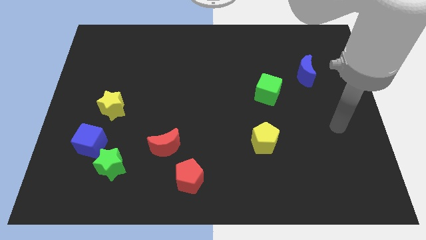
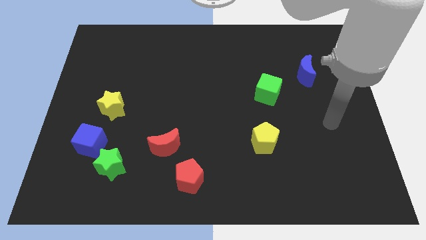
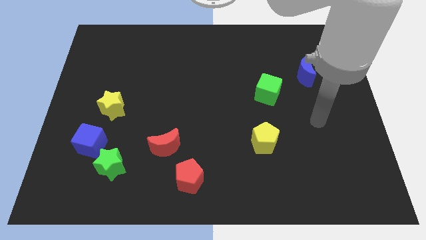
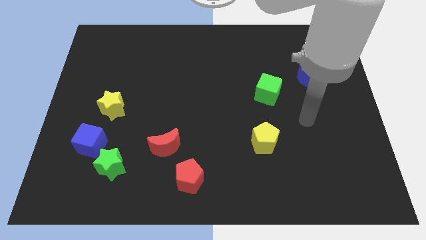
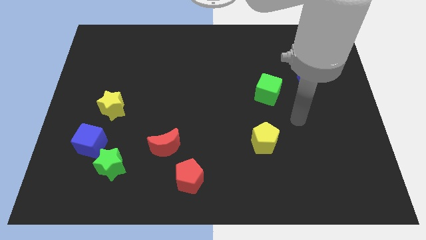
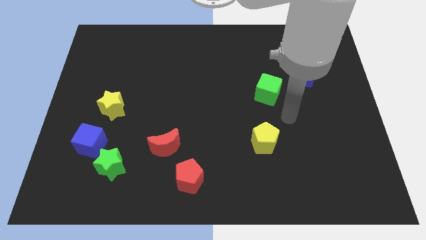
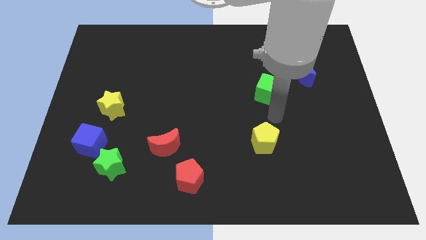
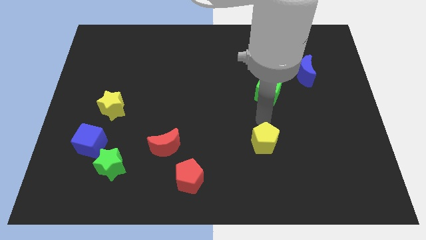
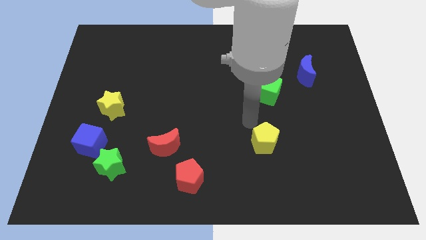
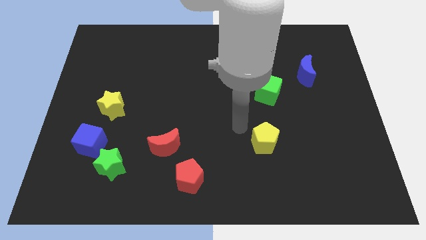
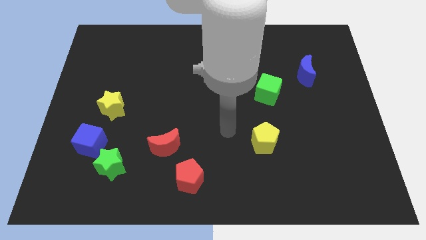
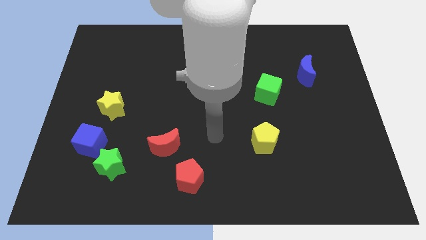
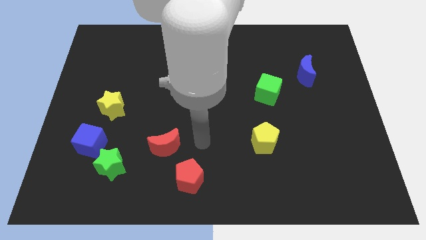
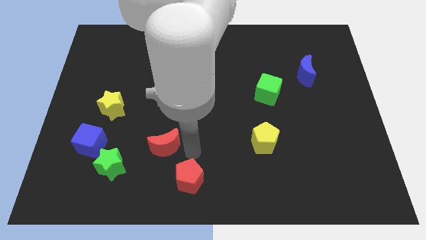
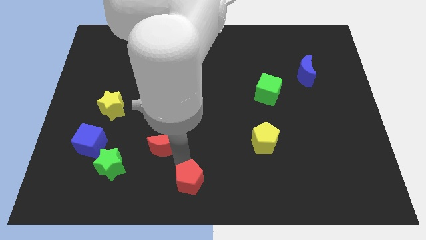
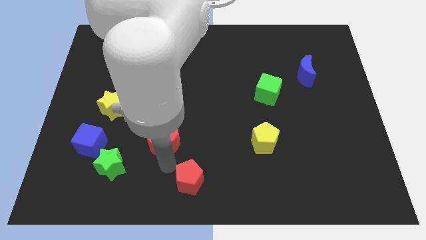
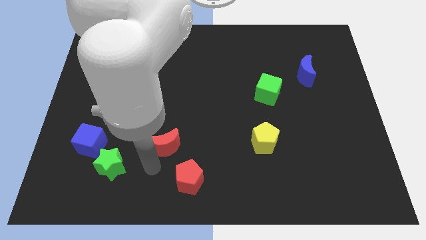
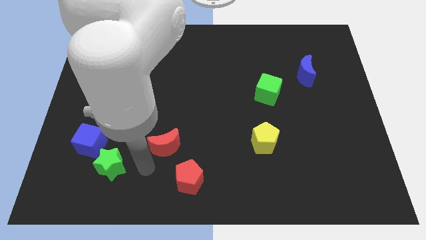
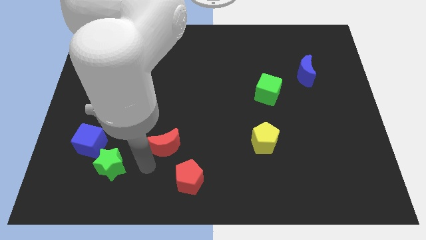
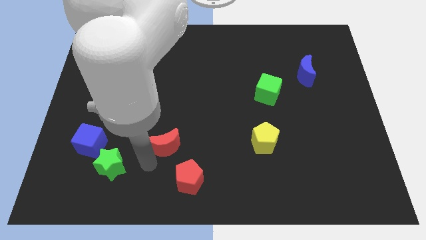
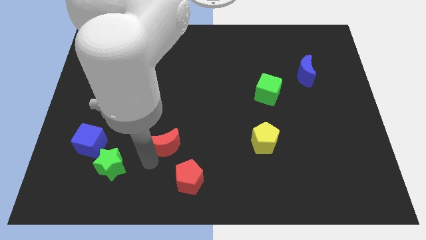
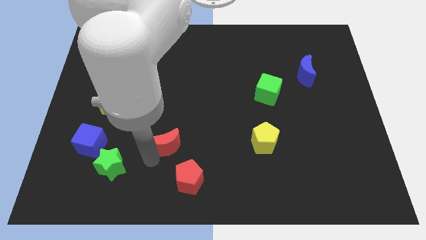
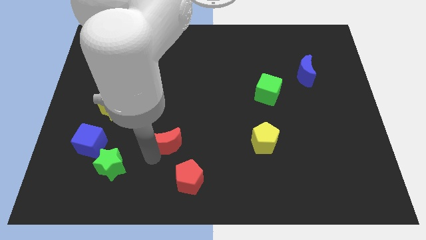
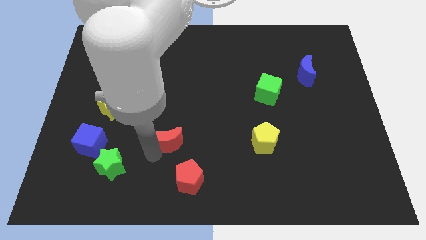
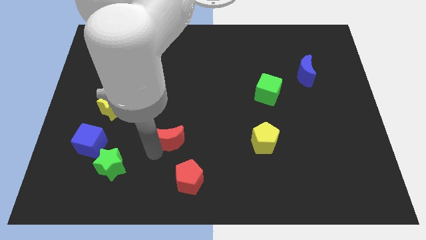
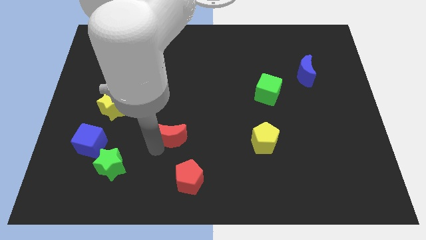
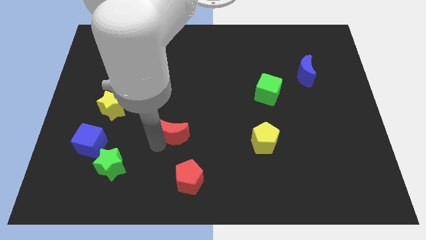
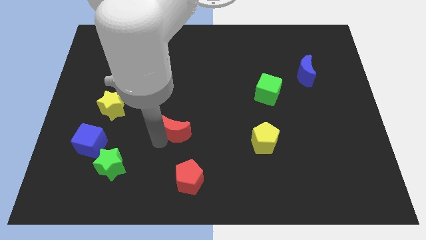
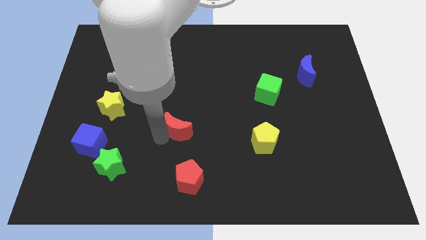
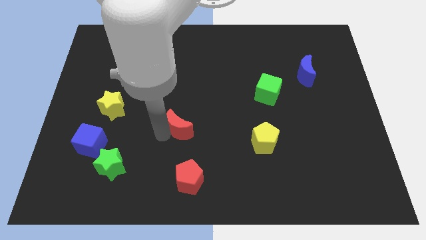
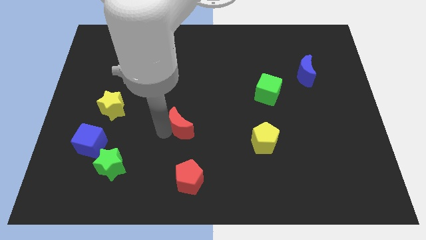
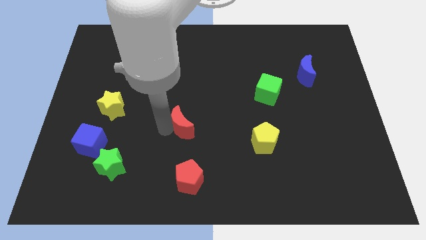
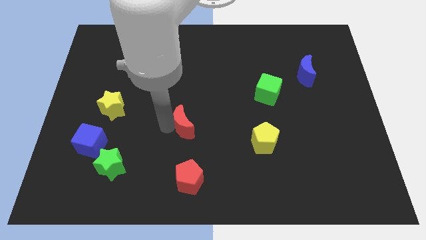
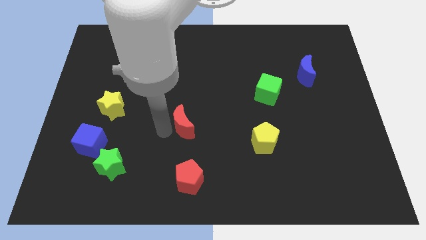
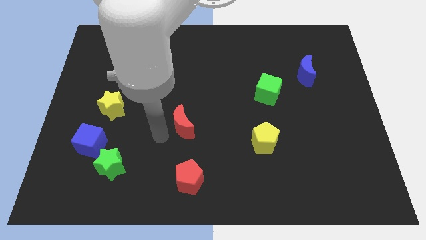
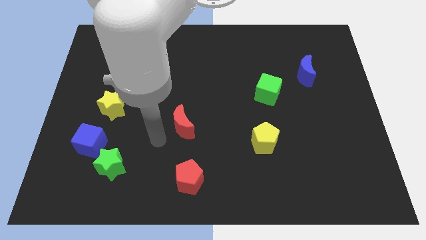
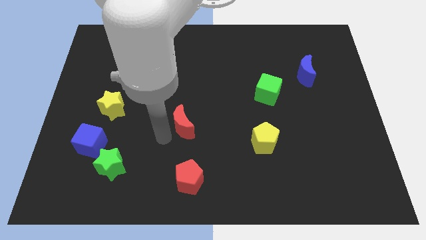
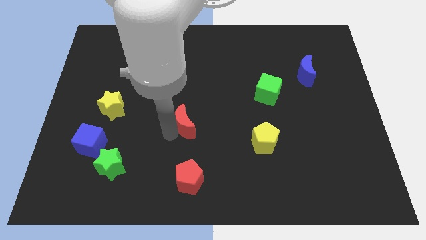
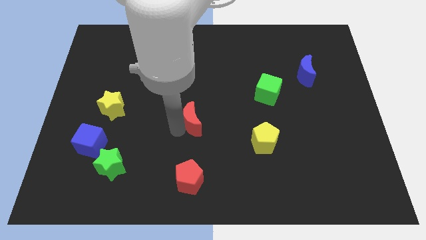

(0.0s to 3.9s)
slide the red moon upwards and then to the right slightly

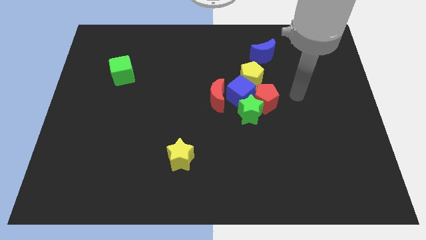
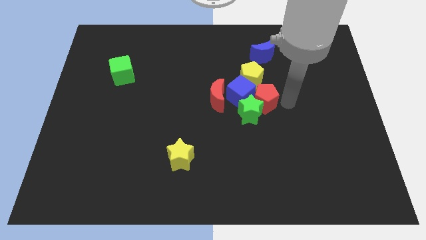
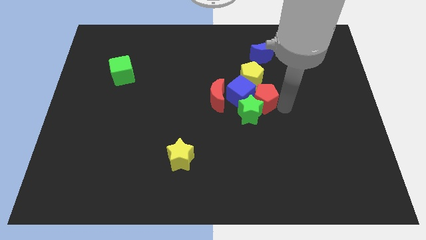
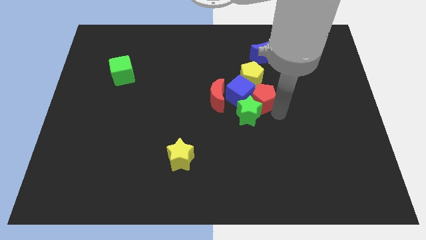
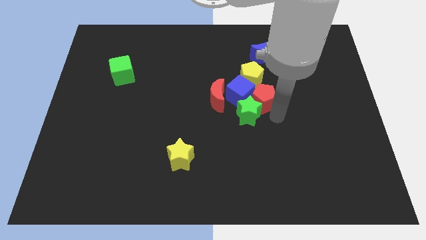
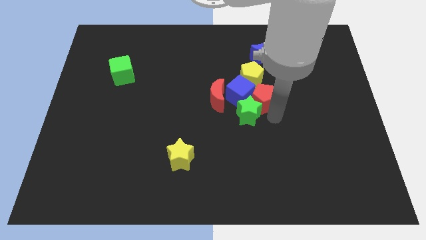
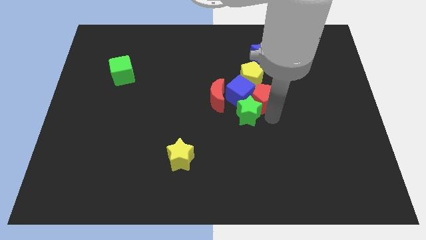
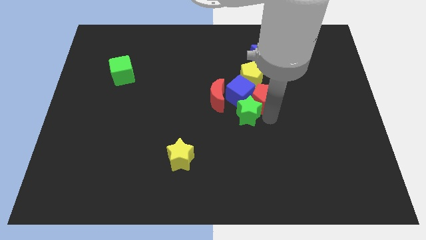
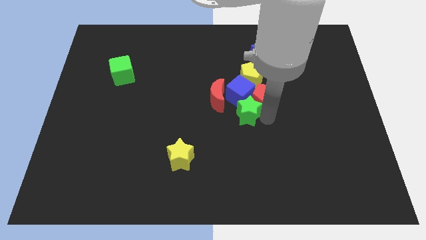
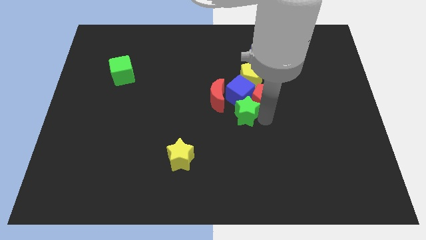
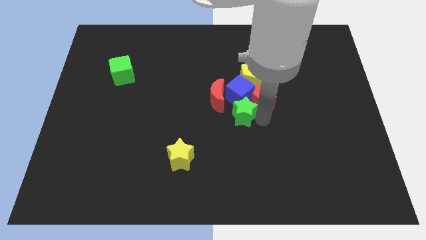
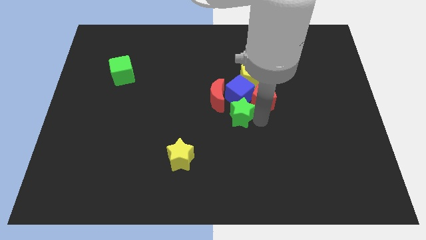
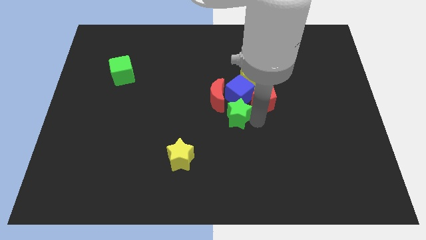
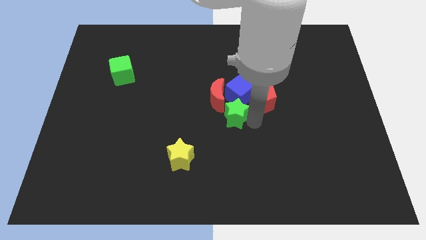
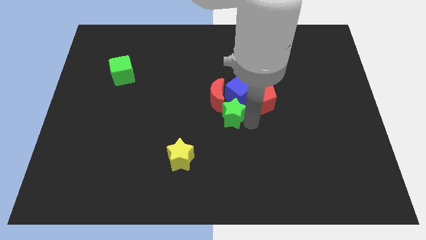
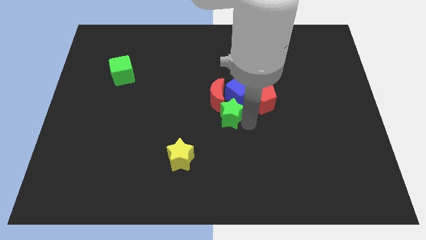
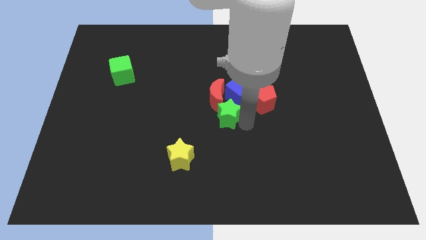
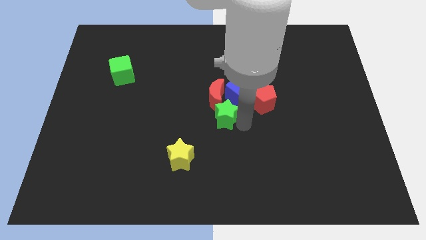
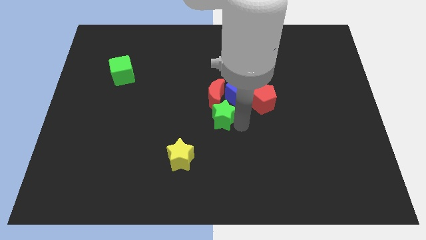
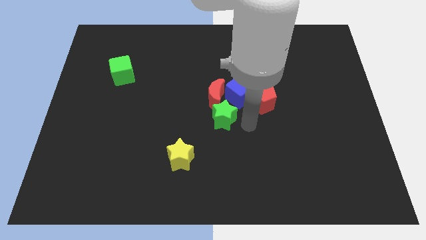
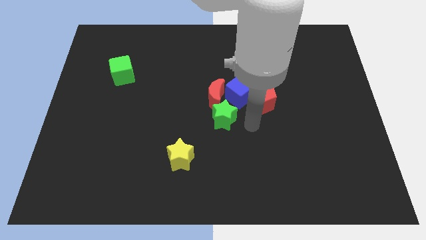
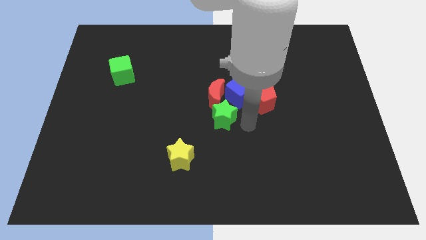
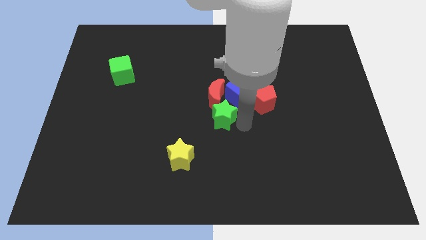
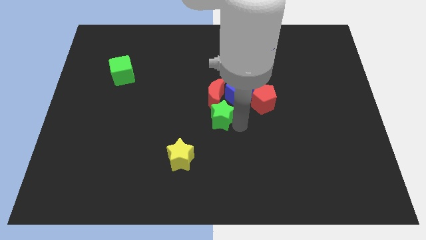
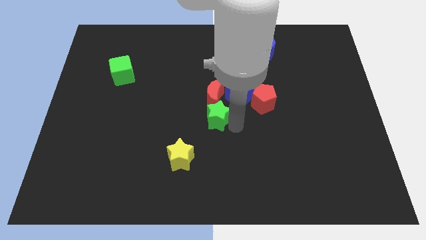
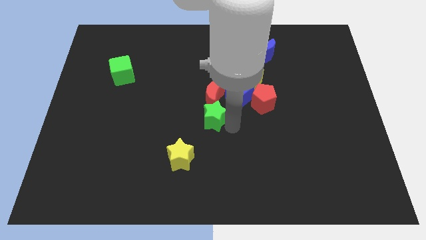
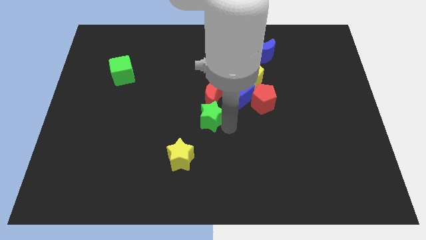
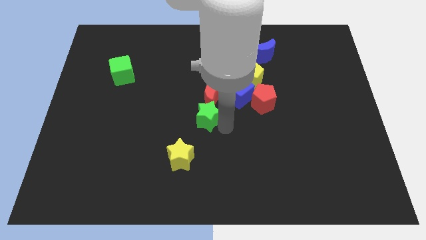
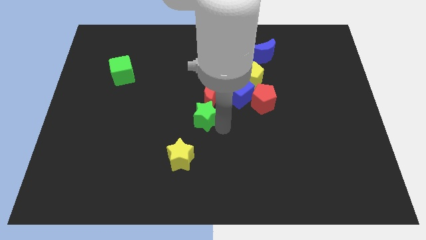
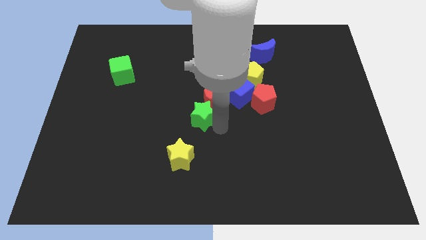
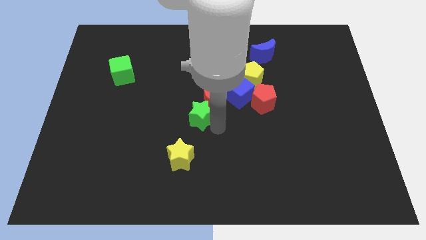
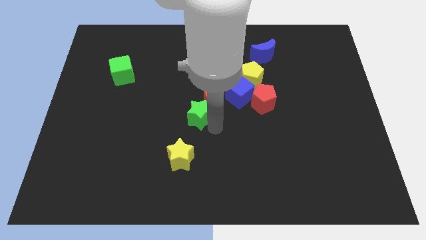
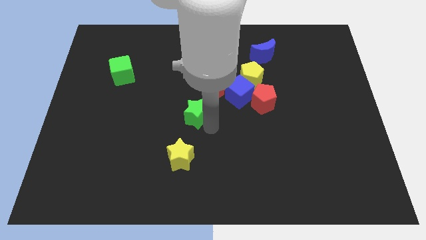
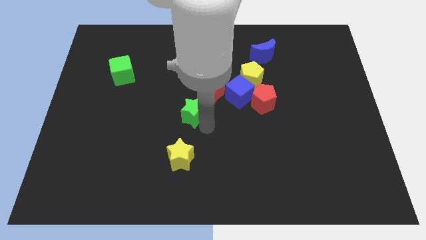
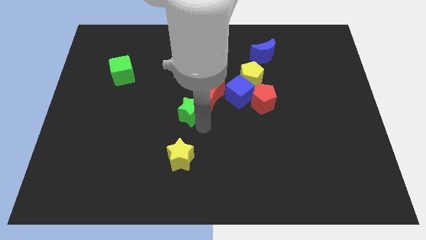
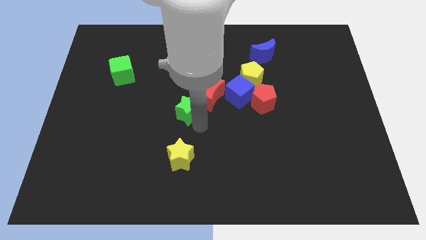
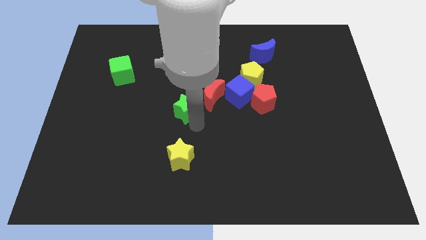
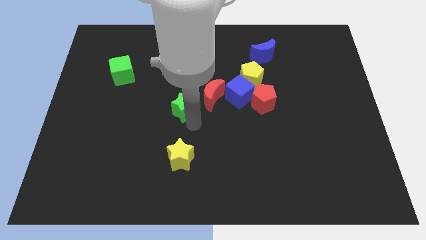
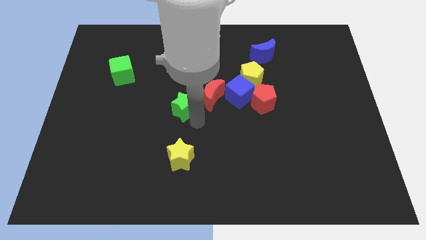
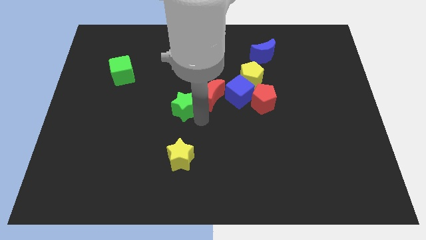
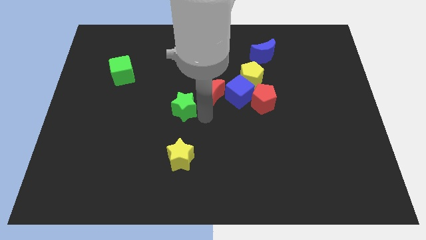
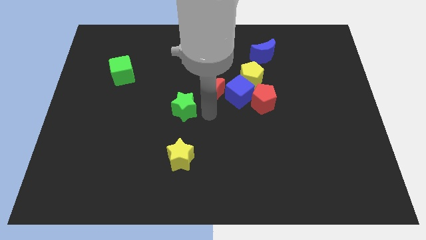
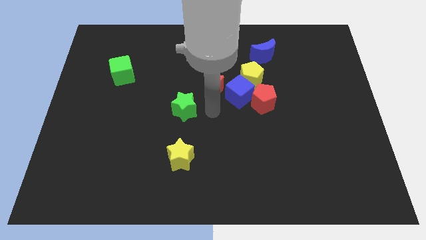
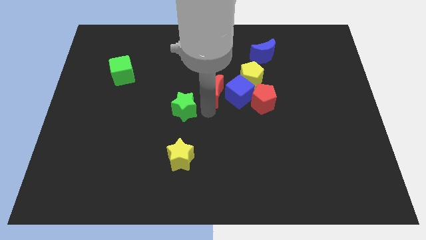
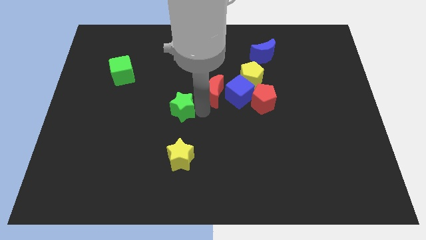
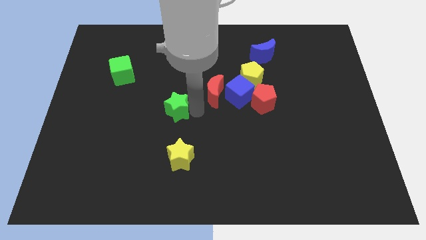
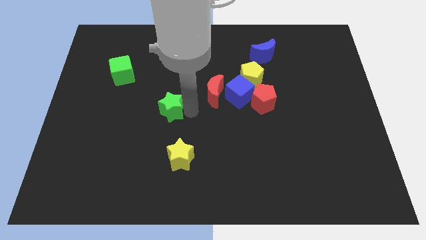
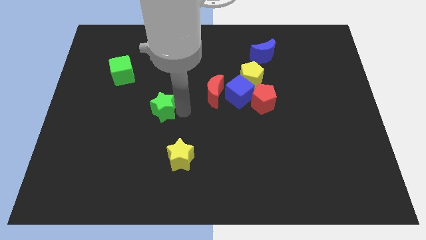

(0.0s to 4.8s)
slide the green star to the left
